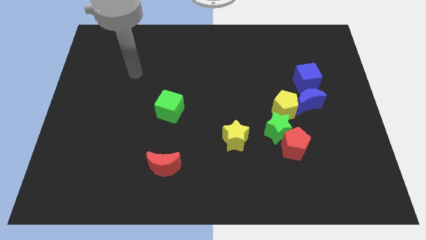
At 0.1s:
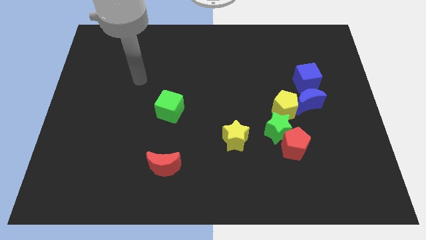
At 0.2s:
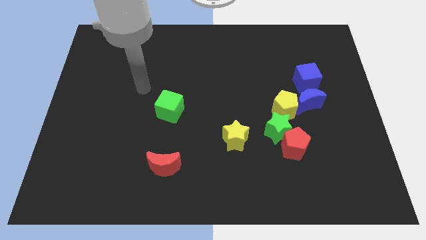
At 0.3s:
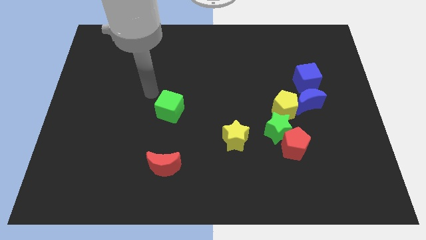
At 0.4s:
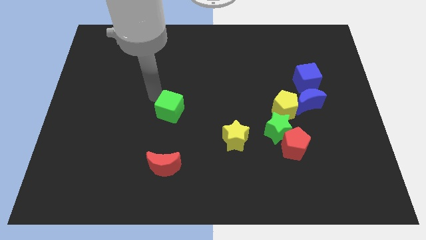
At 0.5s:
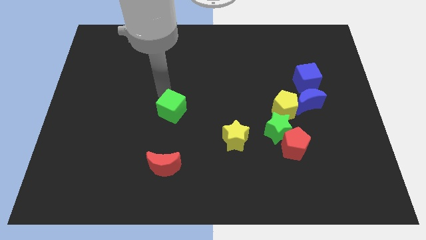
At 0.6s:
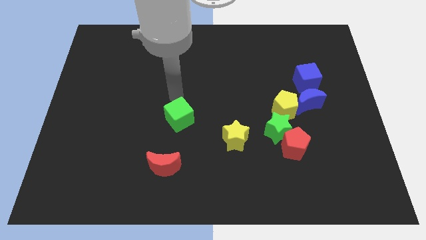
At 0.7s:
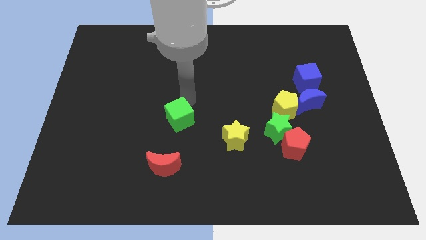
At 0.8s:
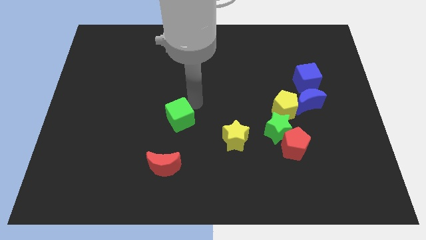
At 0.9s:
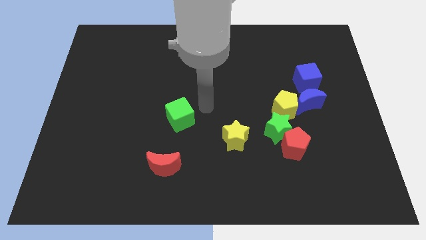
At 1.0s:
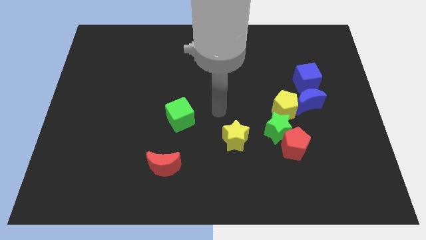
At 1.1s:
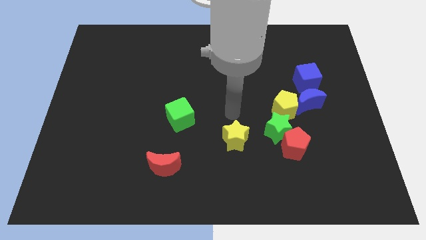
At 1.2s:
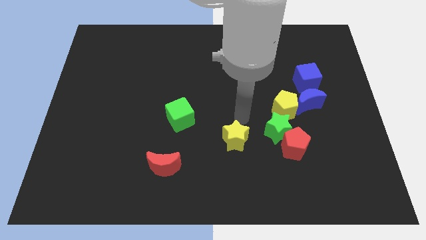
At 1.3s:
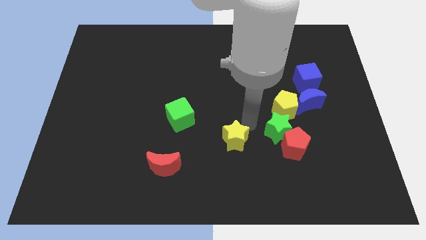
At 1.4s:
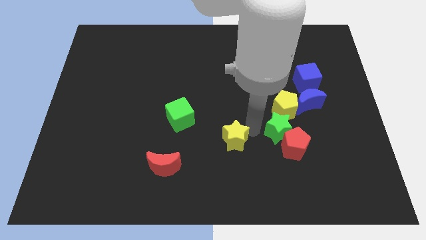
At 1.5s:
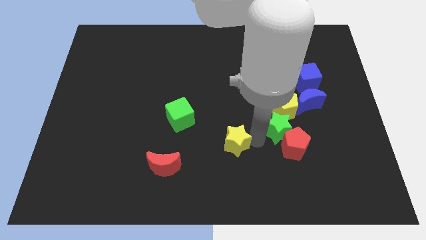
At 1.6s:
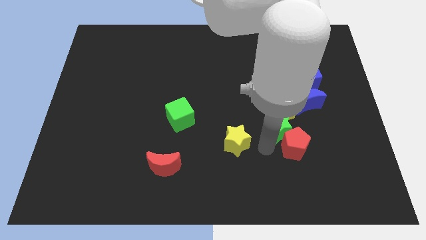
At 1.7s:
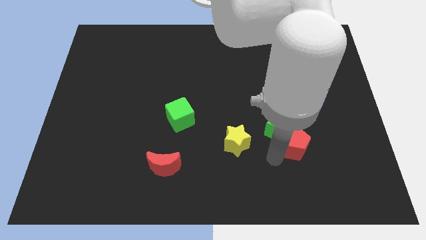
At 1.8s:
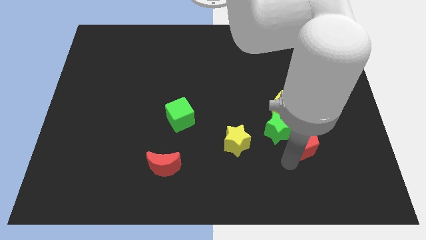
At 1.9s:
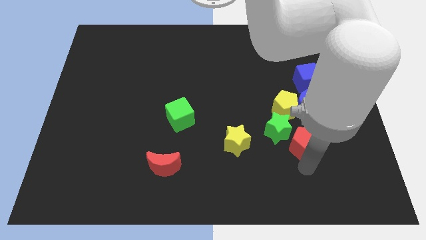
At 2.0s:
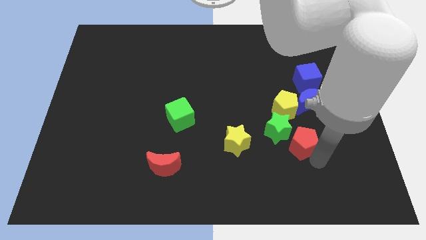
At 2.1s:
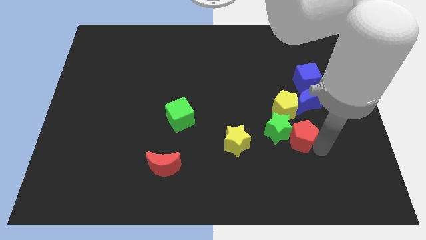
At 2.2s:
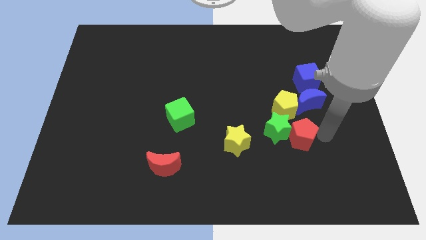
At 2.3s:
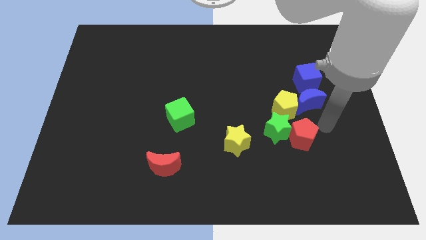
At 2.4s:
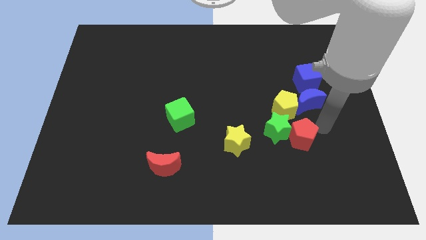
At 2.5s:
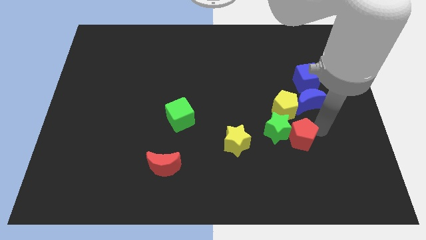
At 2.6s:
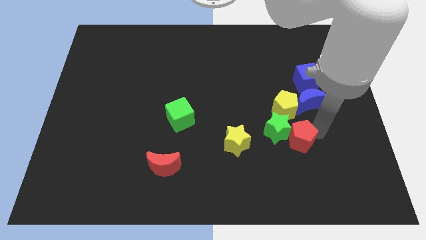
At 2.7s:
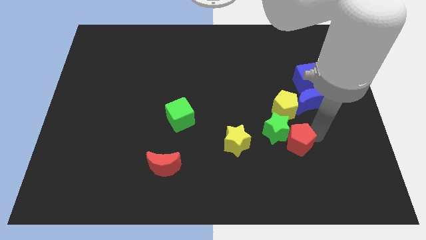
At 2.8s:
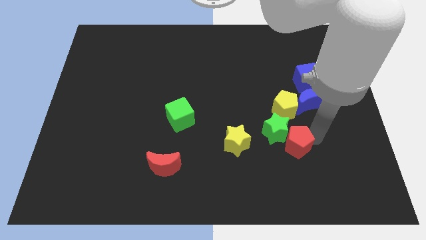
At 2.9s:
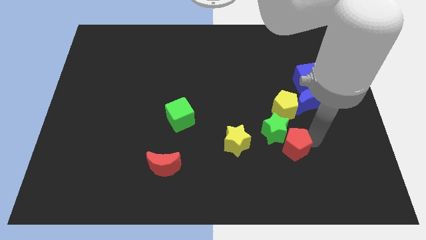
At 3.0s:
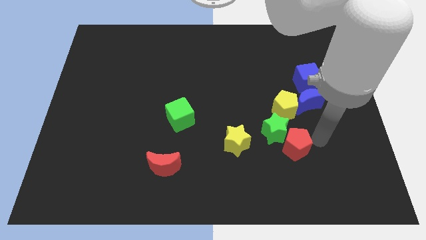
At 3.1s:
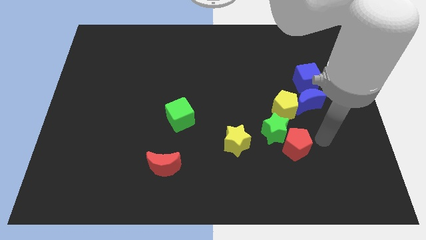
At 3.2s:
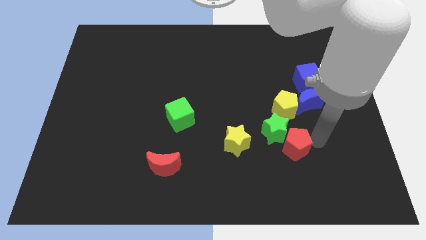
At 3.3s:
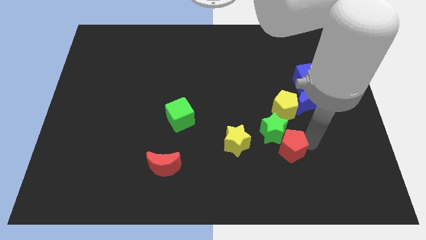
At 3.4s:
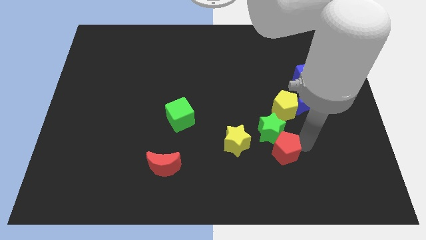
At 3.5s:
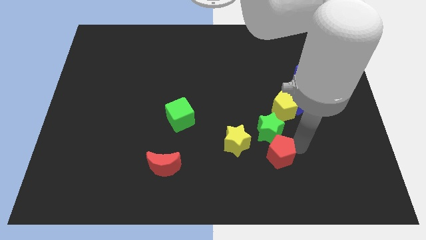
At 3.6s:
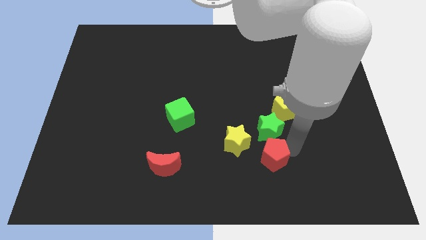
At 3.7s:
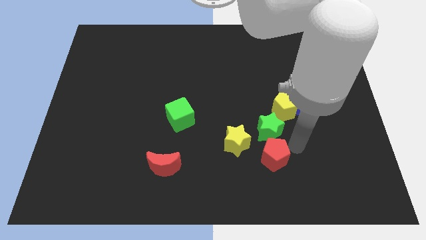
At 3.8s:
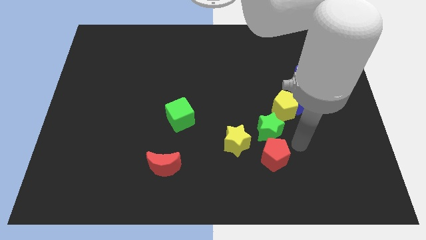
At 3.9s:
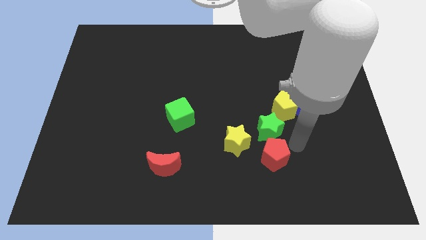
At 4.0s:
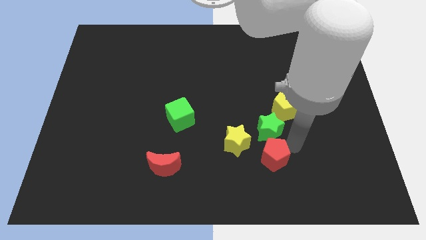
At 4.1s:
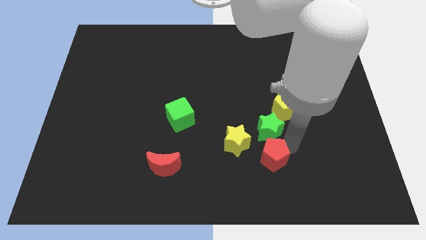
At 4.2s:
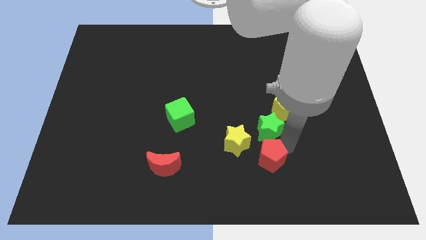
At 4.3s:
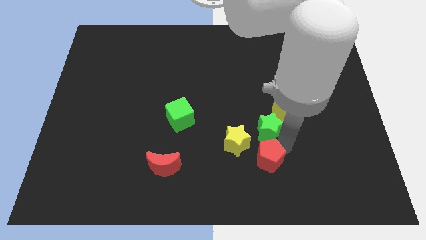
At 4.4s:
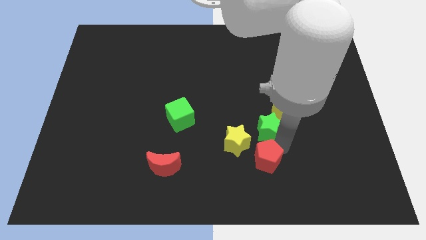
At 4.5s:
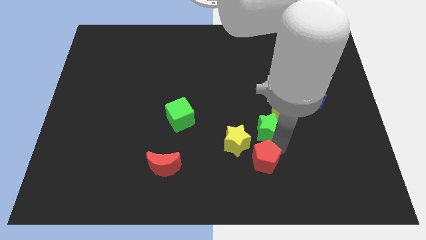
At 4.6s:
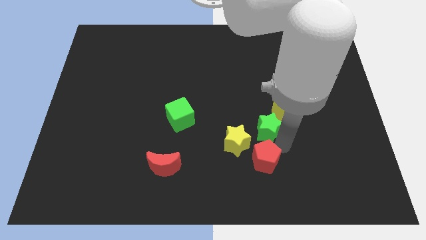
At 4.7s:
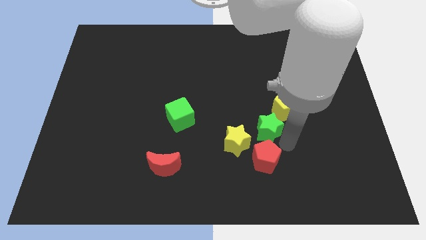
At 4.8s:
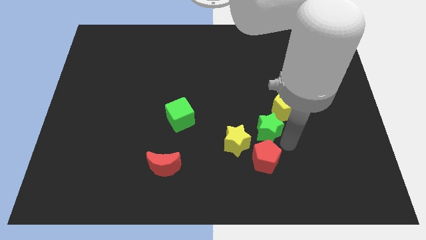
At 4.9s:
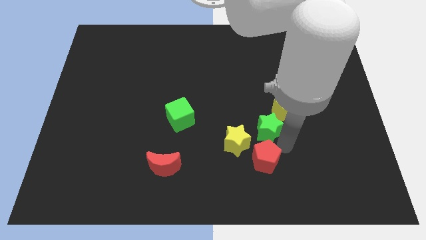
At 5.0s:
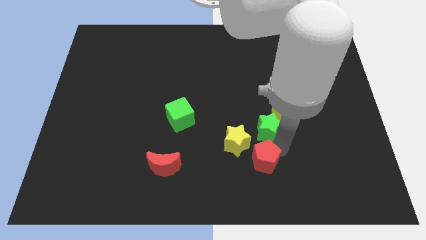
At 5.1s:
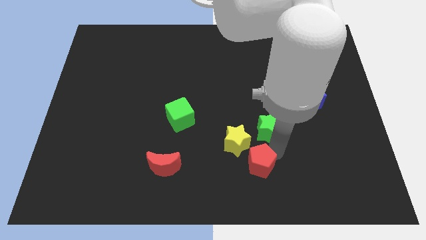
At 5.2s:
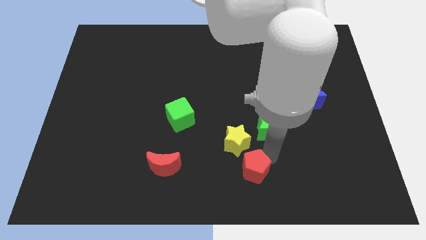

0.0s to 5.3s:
slide the red pentagon to the bottom side

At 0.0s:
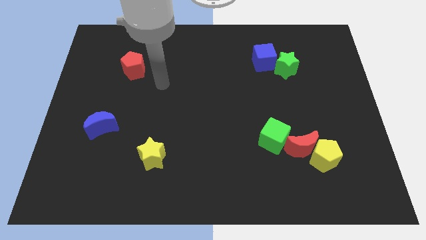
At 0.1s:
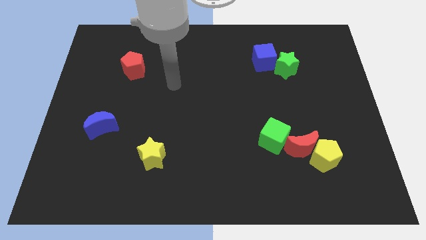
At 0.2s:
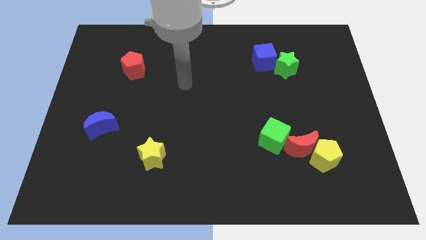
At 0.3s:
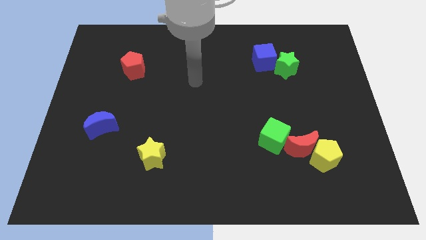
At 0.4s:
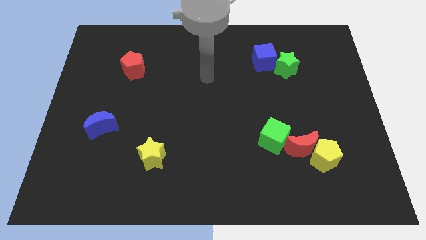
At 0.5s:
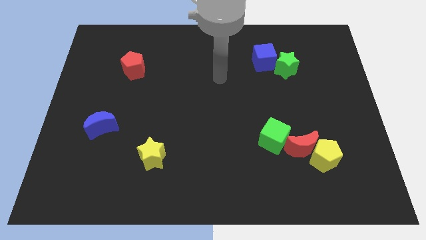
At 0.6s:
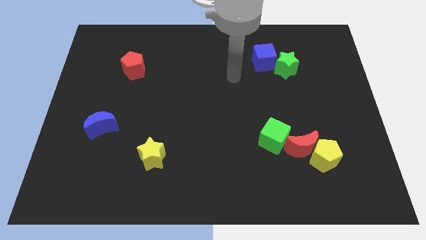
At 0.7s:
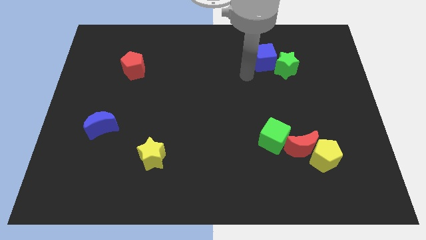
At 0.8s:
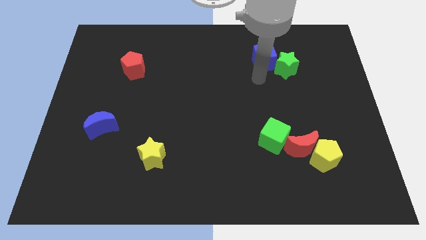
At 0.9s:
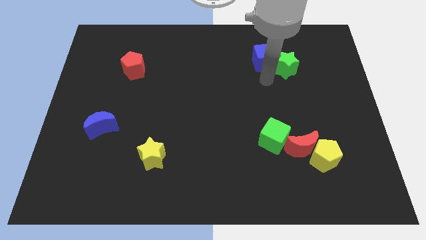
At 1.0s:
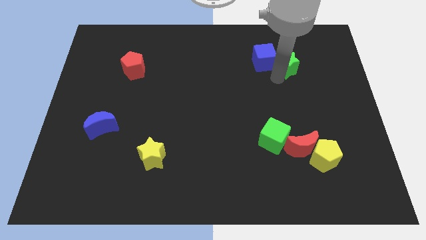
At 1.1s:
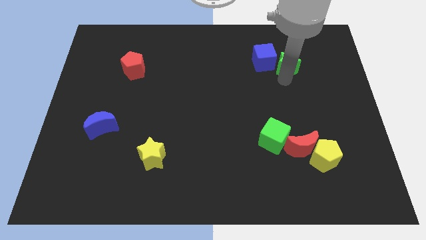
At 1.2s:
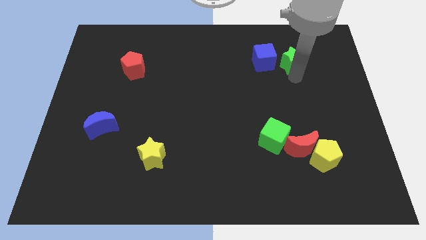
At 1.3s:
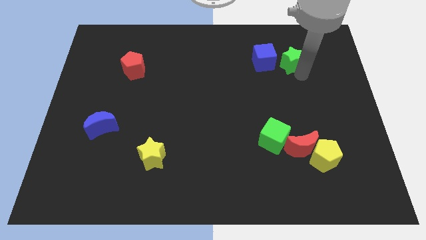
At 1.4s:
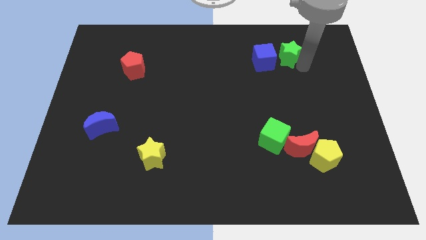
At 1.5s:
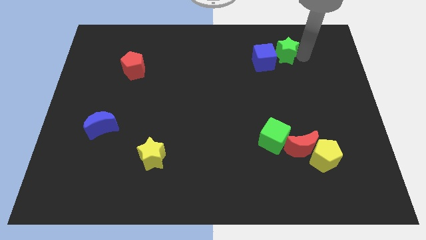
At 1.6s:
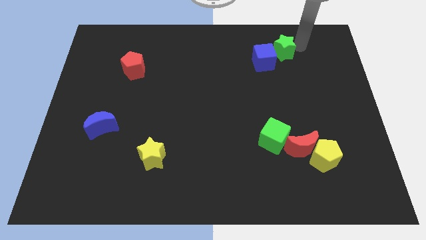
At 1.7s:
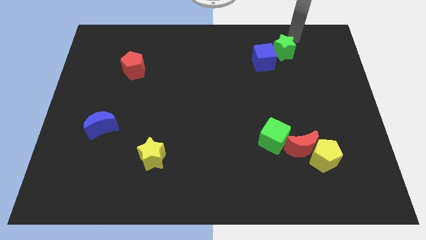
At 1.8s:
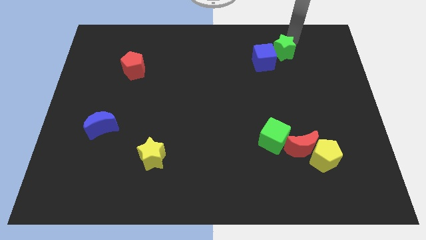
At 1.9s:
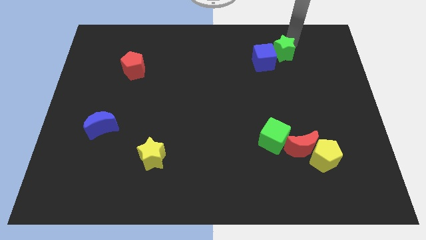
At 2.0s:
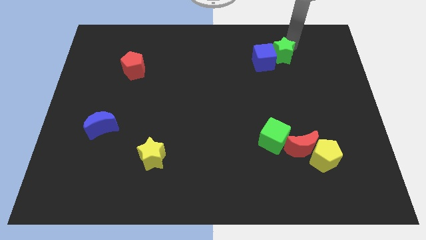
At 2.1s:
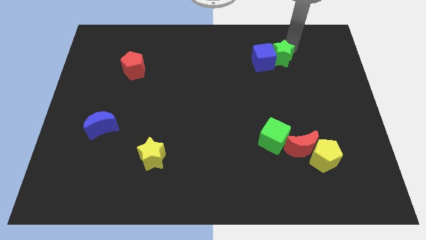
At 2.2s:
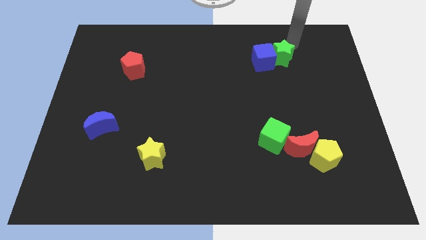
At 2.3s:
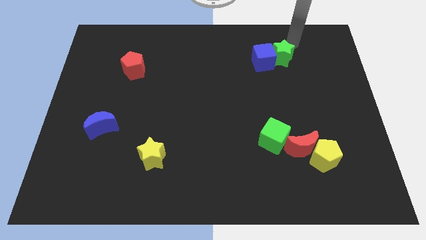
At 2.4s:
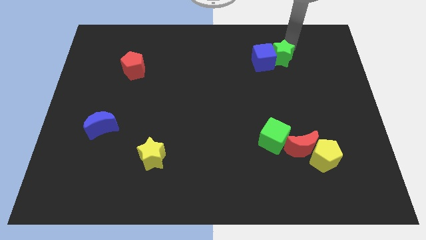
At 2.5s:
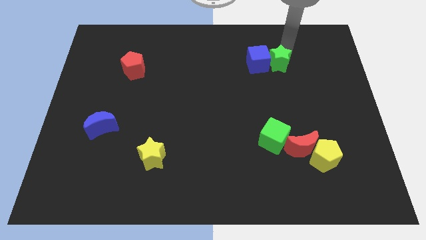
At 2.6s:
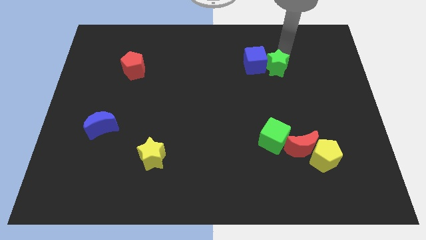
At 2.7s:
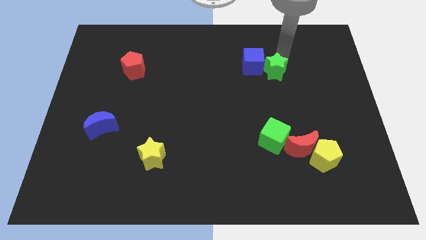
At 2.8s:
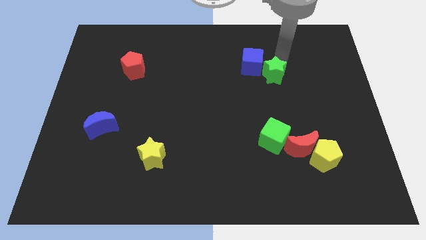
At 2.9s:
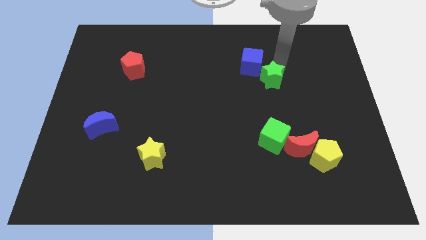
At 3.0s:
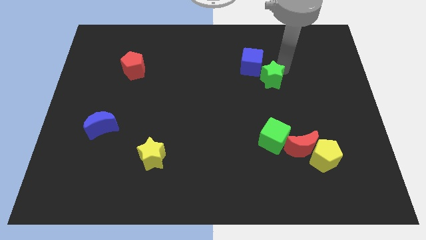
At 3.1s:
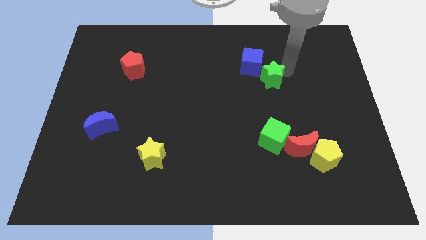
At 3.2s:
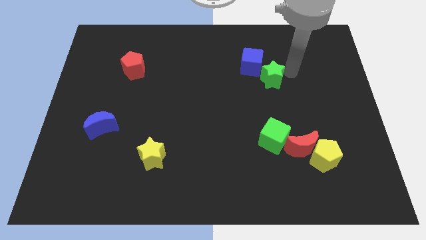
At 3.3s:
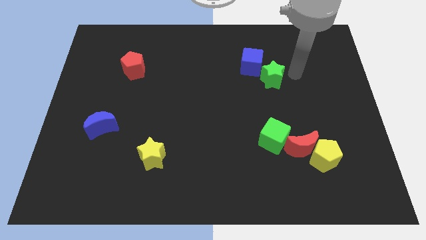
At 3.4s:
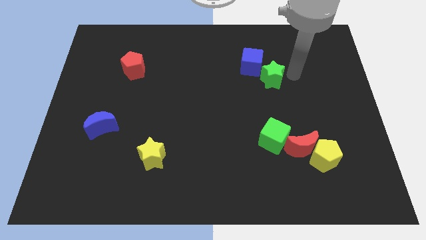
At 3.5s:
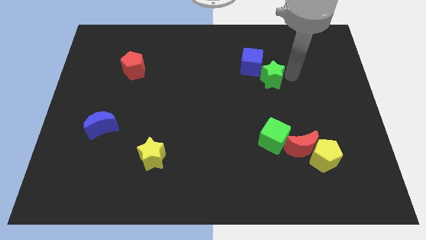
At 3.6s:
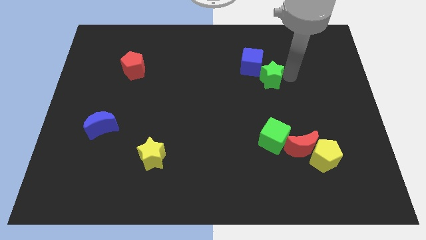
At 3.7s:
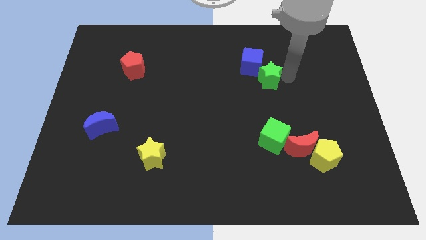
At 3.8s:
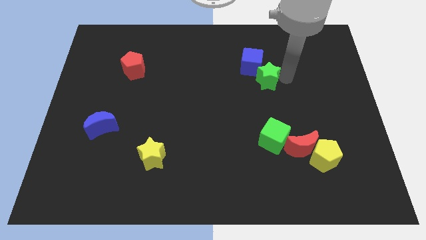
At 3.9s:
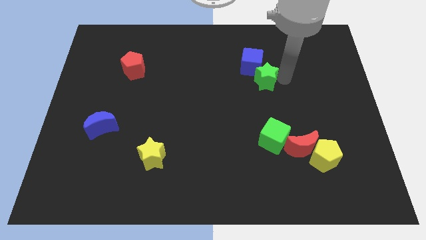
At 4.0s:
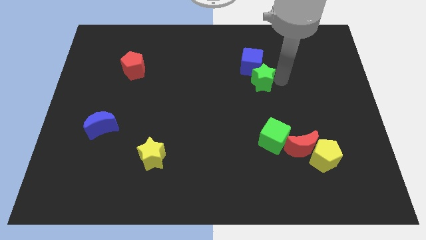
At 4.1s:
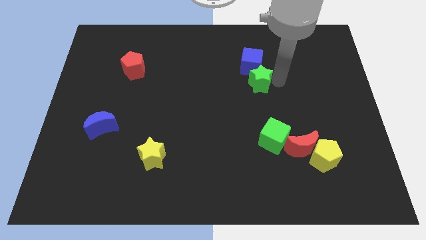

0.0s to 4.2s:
move the green star to the middle
